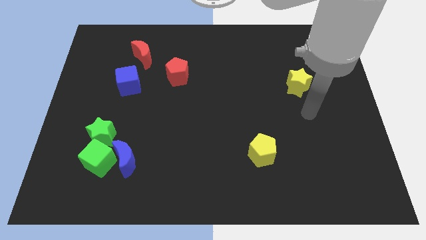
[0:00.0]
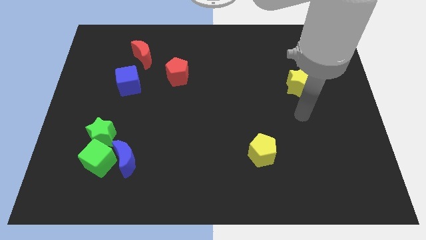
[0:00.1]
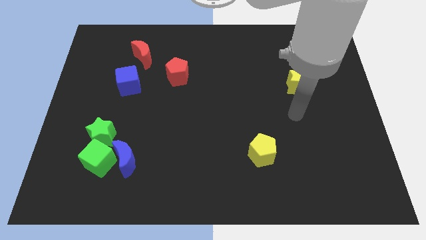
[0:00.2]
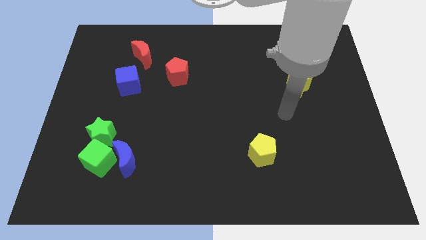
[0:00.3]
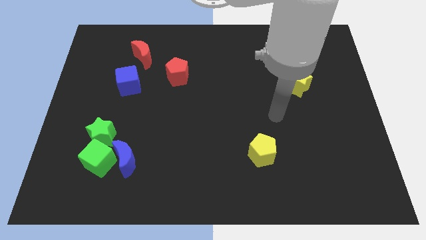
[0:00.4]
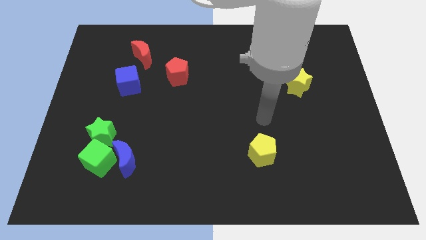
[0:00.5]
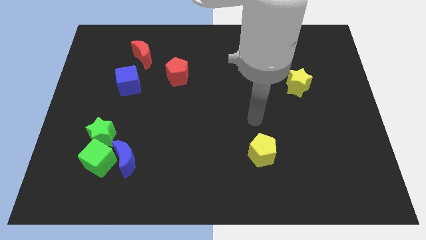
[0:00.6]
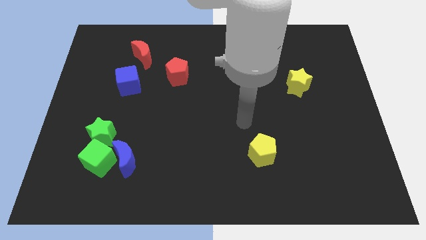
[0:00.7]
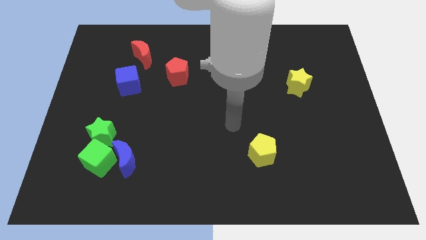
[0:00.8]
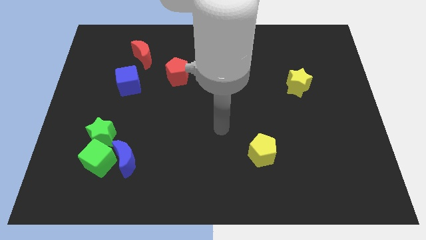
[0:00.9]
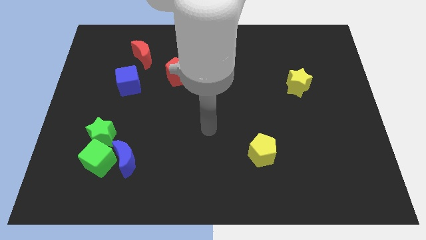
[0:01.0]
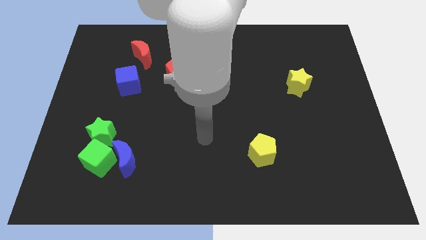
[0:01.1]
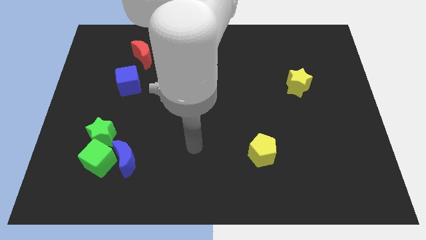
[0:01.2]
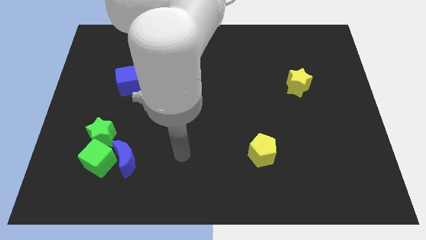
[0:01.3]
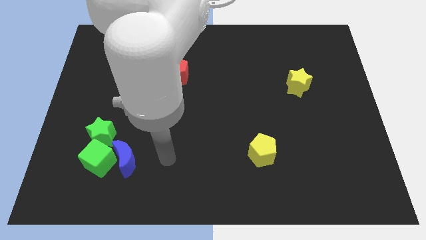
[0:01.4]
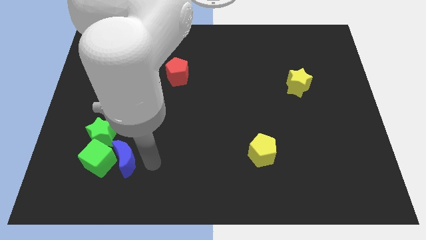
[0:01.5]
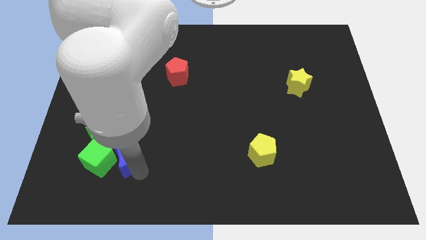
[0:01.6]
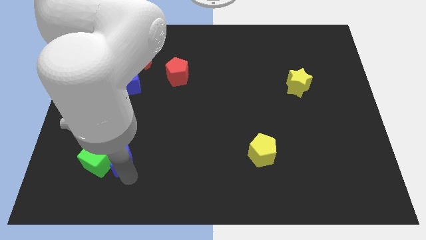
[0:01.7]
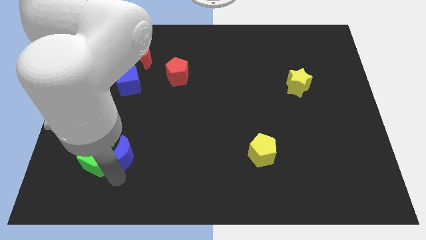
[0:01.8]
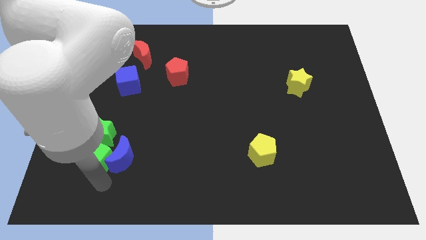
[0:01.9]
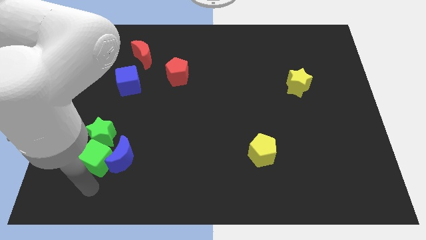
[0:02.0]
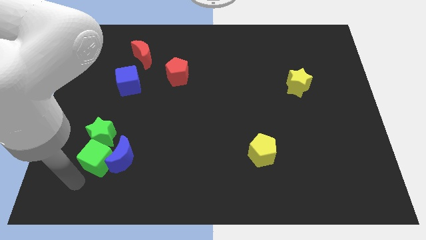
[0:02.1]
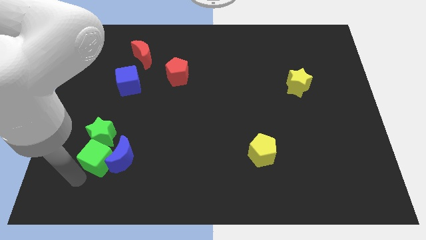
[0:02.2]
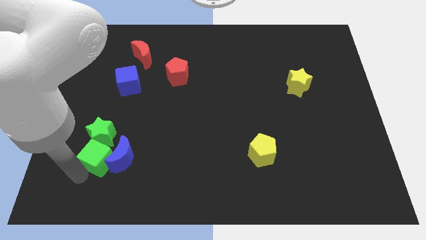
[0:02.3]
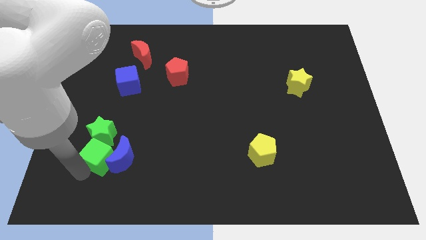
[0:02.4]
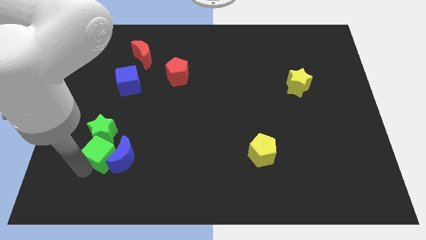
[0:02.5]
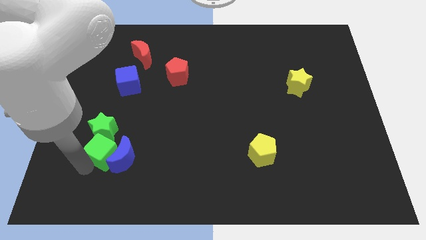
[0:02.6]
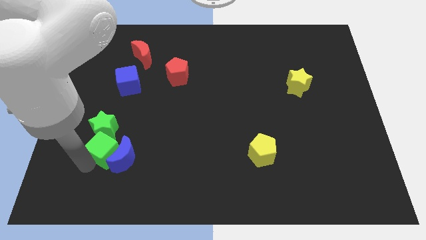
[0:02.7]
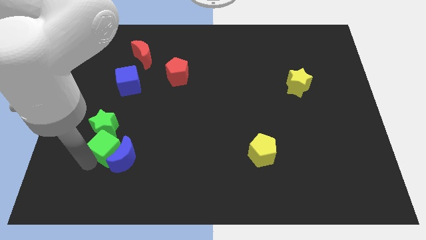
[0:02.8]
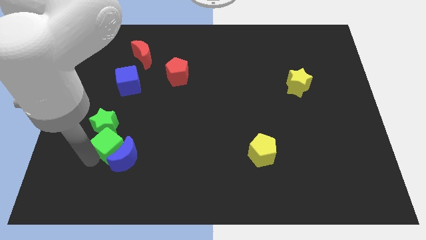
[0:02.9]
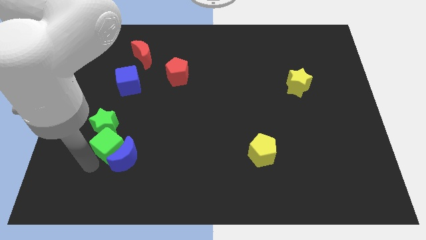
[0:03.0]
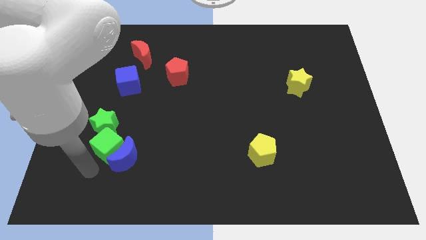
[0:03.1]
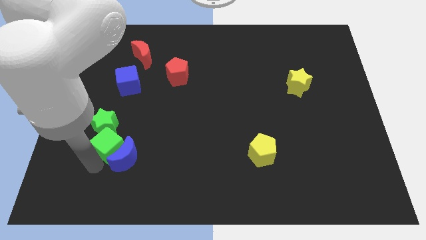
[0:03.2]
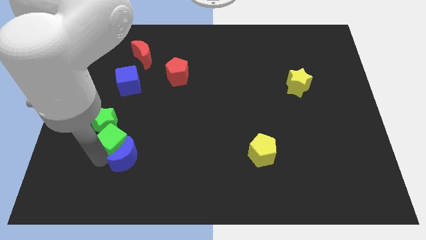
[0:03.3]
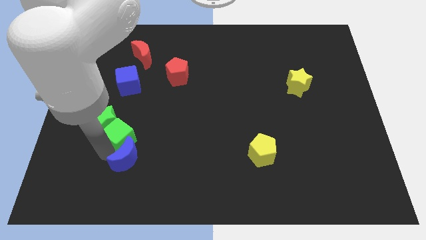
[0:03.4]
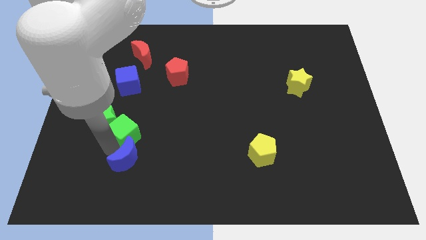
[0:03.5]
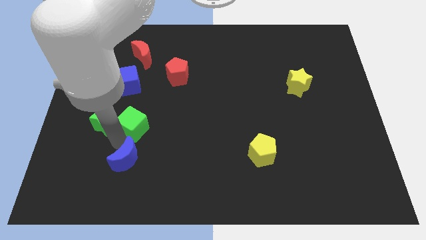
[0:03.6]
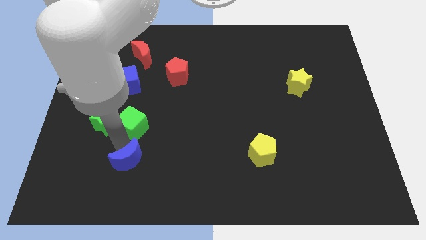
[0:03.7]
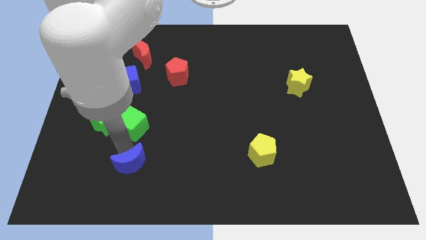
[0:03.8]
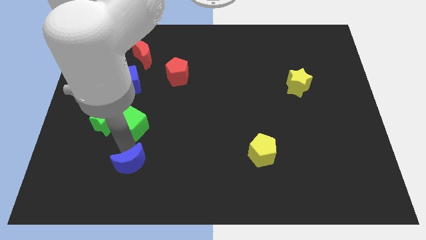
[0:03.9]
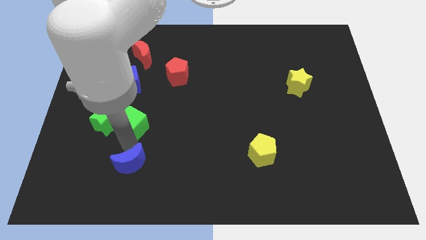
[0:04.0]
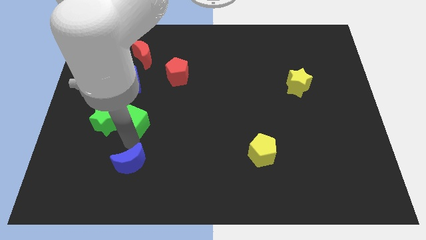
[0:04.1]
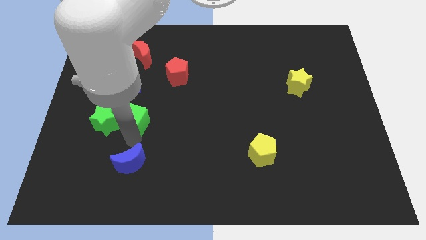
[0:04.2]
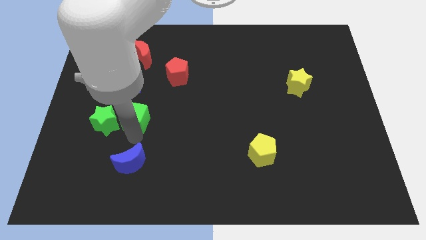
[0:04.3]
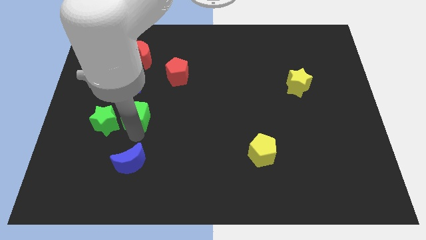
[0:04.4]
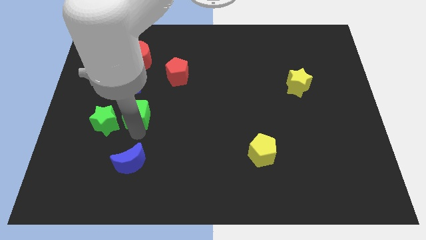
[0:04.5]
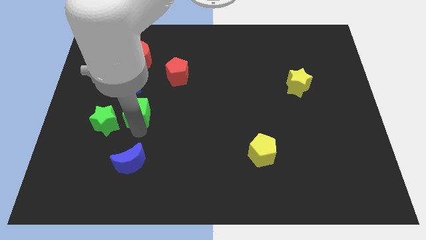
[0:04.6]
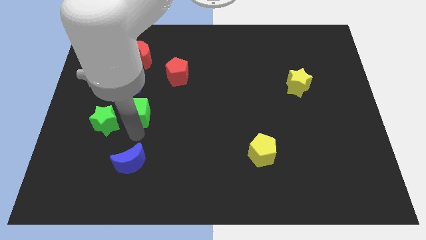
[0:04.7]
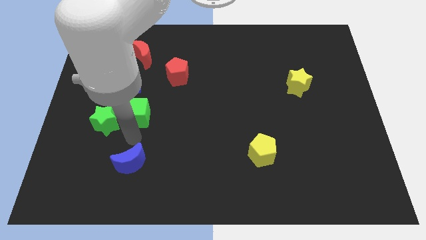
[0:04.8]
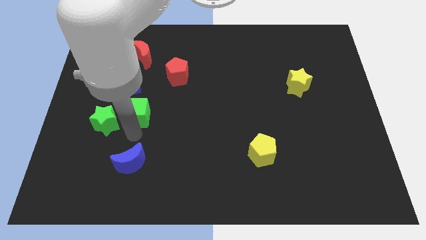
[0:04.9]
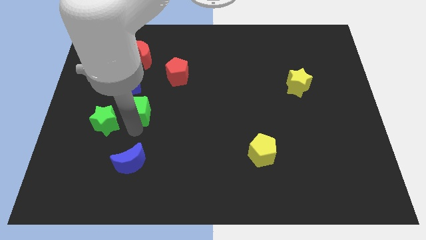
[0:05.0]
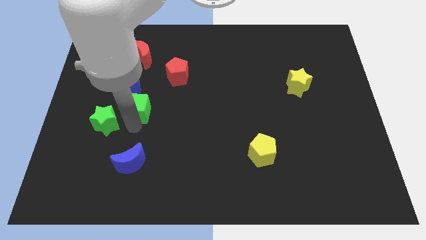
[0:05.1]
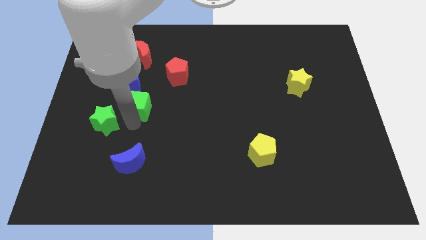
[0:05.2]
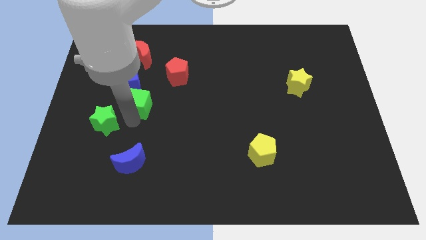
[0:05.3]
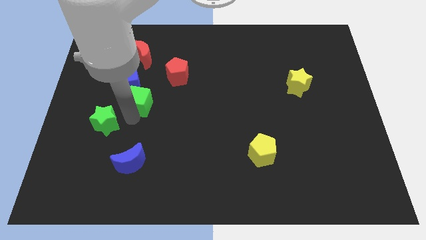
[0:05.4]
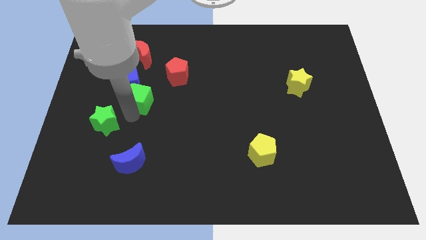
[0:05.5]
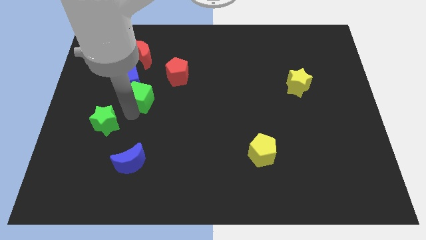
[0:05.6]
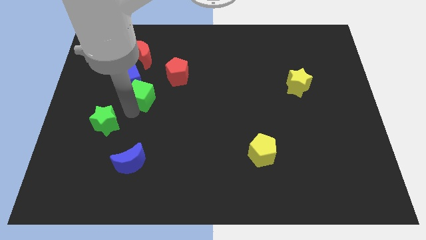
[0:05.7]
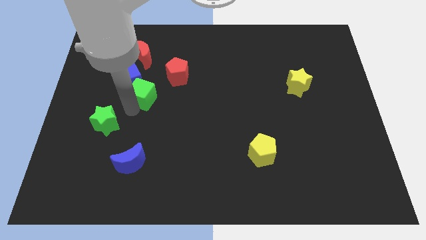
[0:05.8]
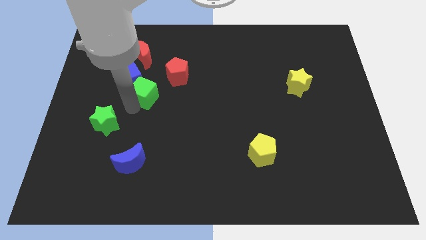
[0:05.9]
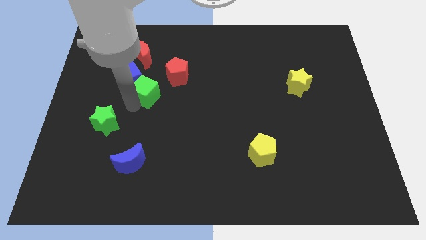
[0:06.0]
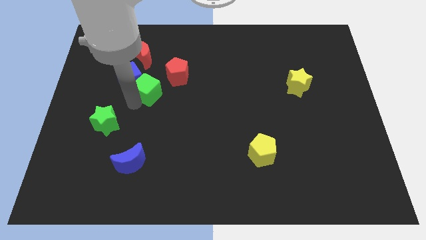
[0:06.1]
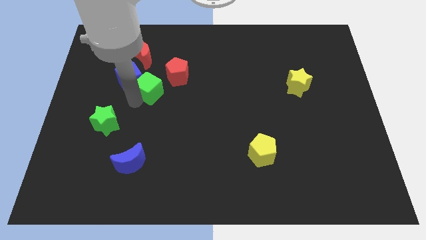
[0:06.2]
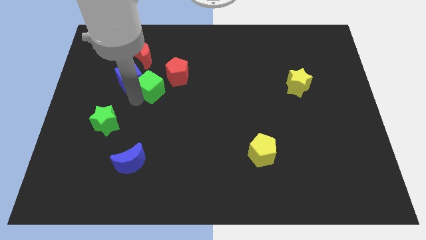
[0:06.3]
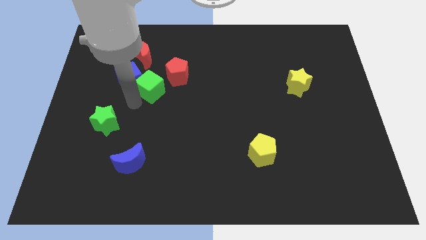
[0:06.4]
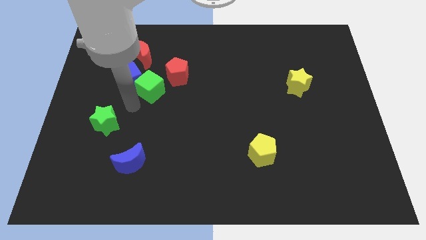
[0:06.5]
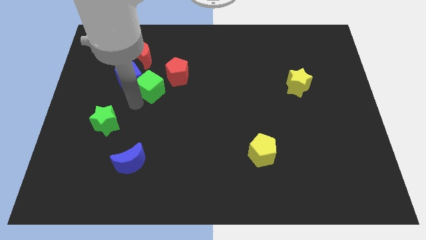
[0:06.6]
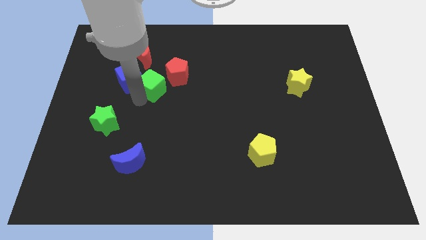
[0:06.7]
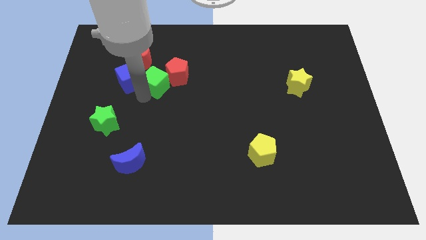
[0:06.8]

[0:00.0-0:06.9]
push the green cube towards the red pentagon

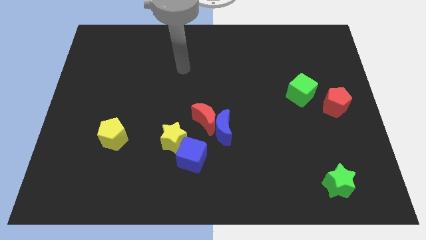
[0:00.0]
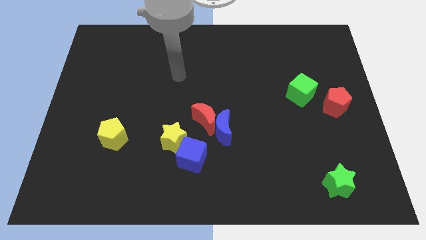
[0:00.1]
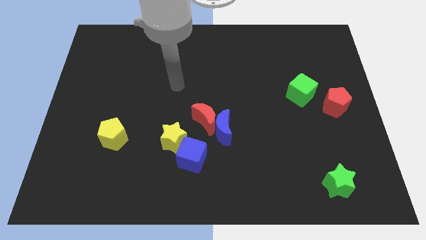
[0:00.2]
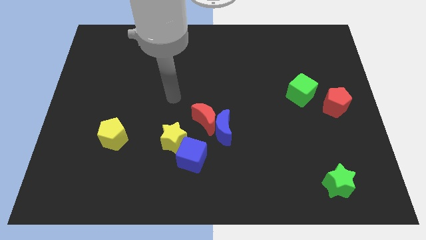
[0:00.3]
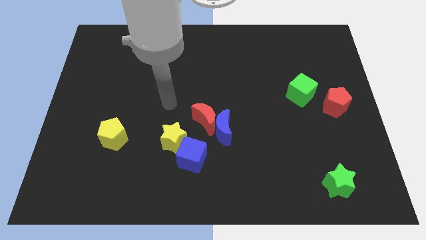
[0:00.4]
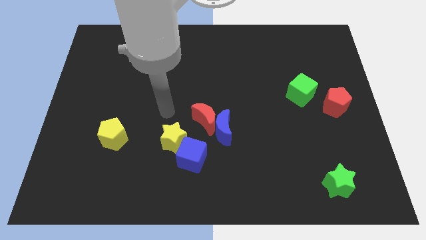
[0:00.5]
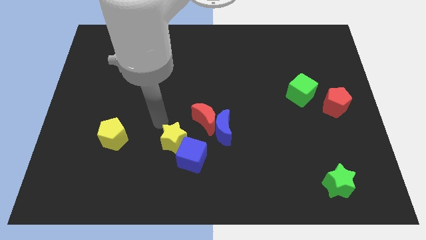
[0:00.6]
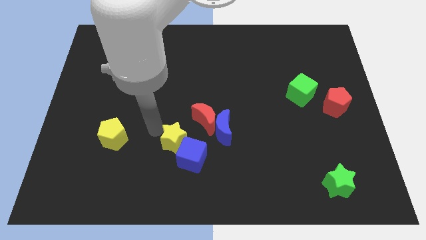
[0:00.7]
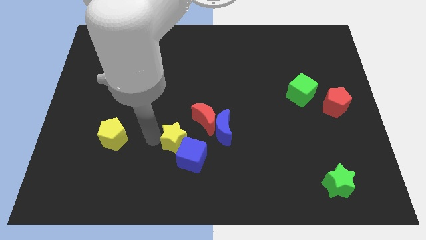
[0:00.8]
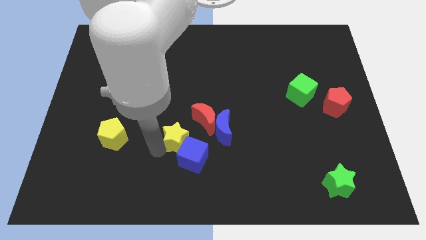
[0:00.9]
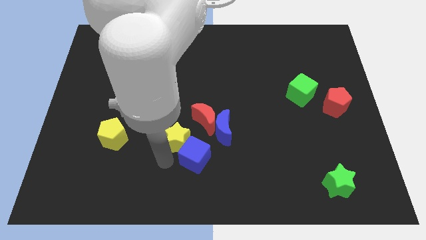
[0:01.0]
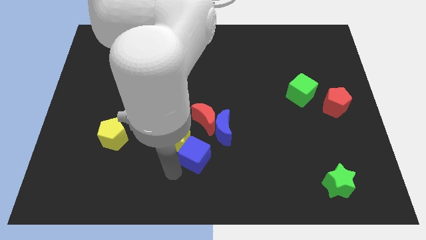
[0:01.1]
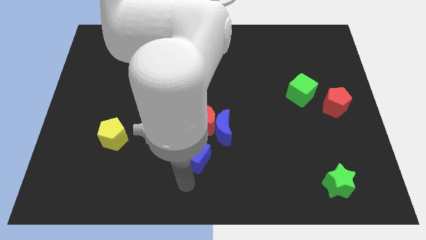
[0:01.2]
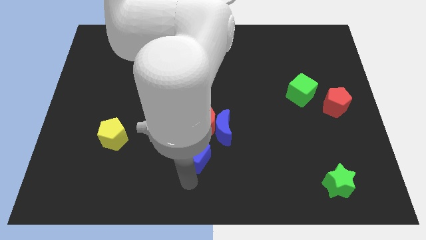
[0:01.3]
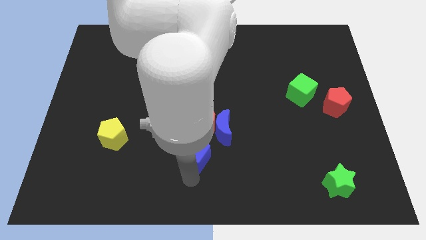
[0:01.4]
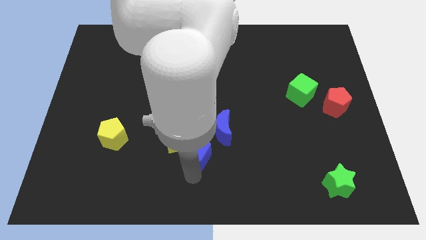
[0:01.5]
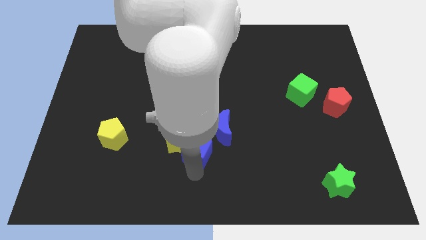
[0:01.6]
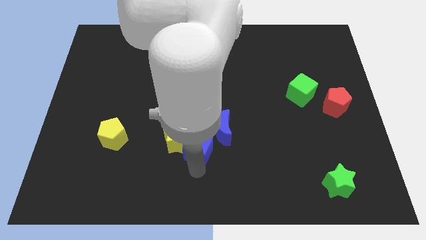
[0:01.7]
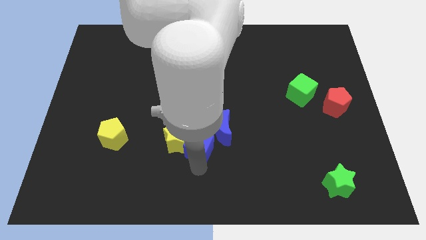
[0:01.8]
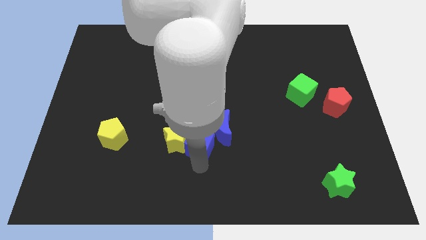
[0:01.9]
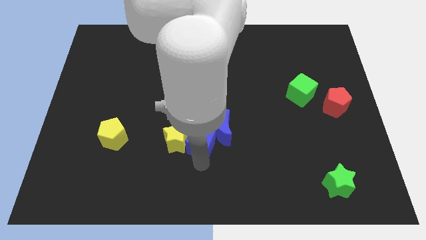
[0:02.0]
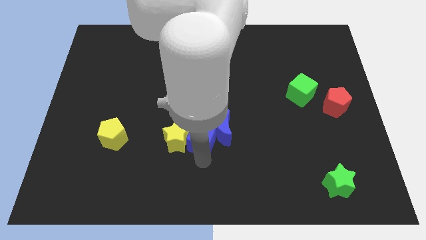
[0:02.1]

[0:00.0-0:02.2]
slide the blue cube close to the red moon
